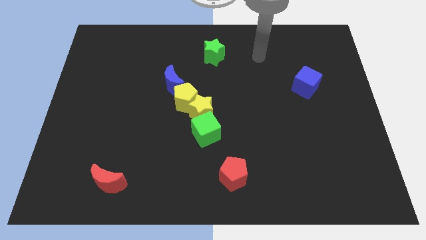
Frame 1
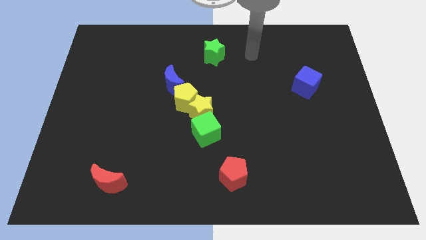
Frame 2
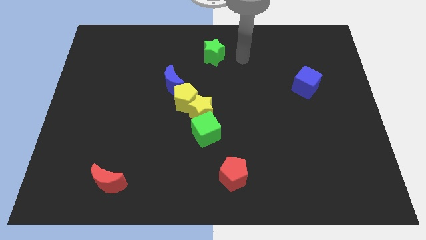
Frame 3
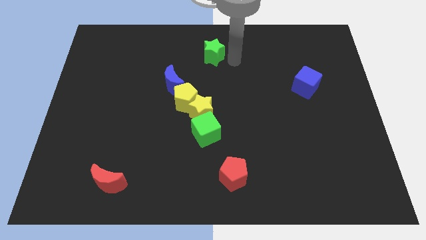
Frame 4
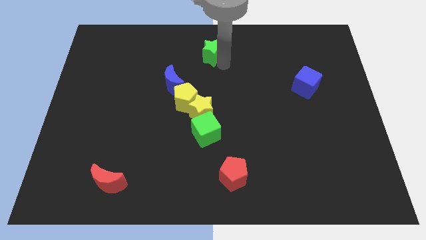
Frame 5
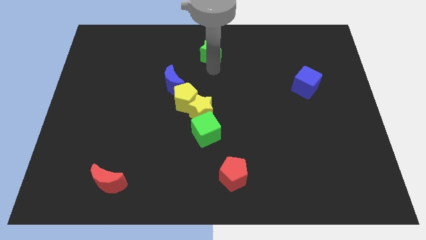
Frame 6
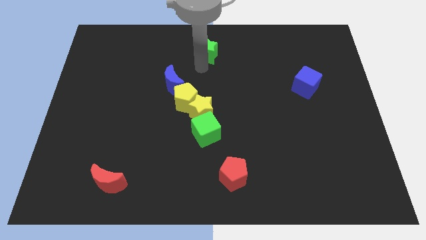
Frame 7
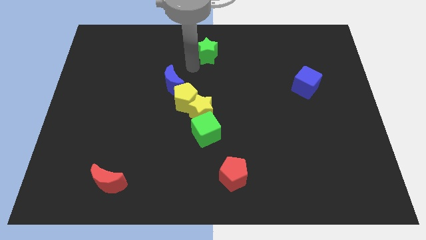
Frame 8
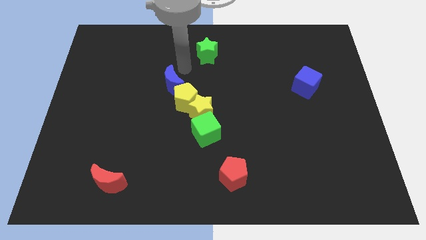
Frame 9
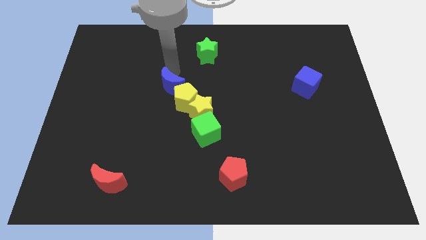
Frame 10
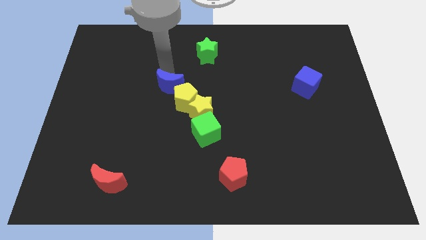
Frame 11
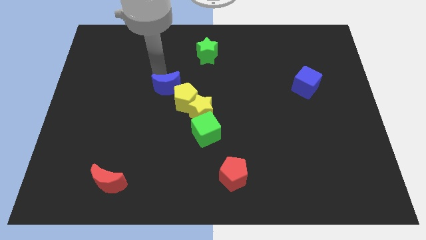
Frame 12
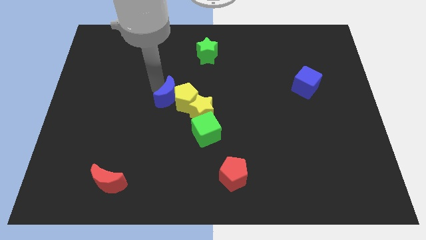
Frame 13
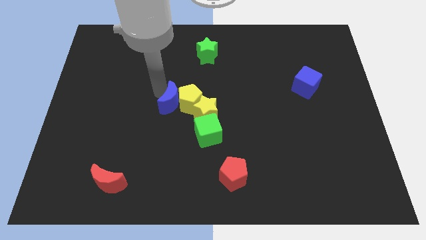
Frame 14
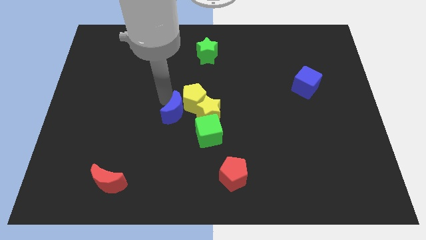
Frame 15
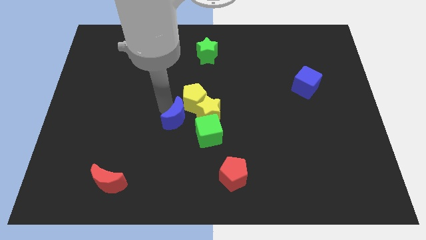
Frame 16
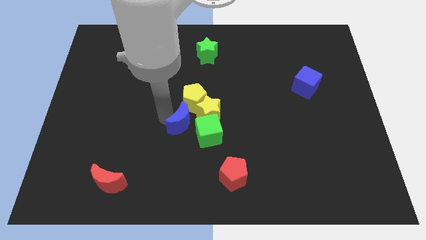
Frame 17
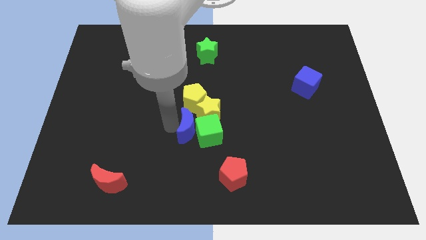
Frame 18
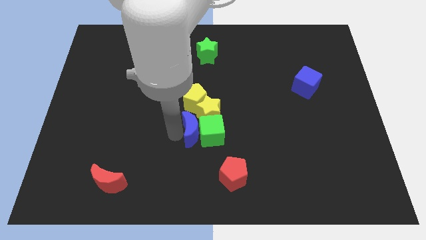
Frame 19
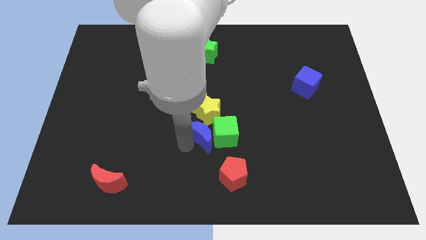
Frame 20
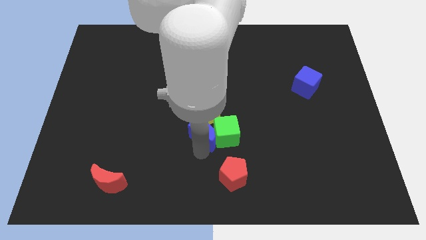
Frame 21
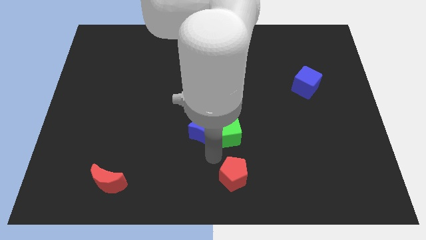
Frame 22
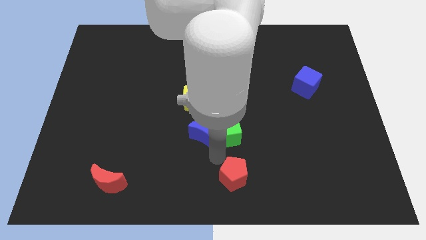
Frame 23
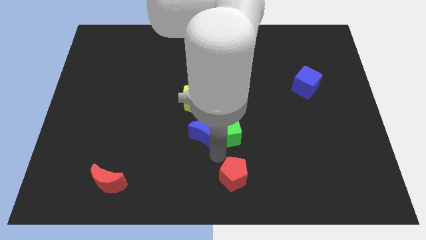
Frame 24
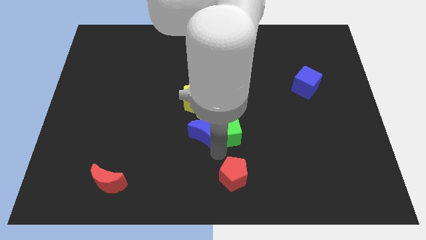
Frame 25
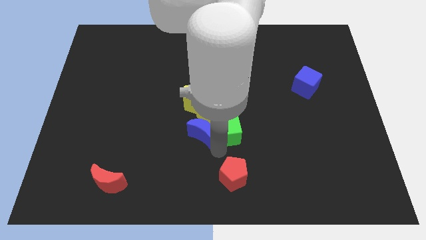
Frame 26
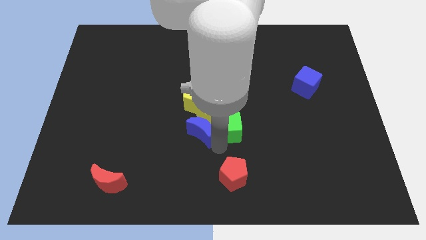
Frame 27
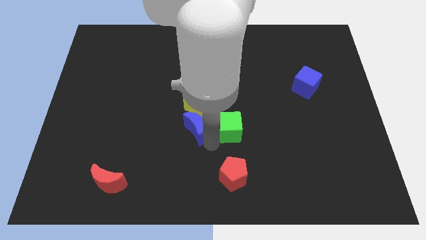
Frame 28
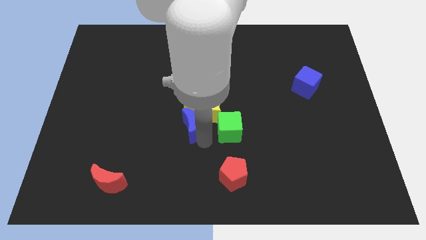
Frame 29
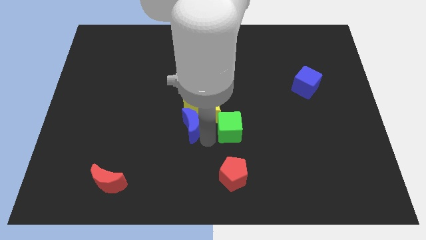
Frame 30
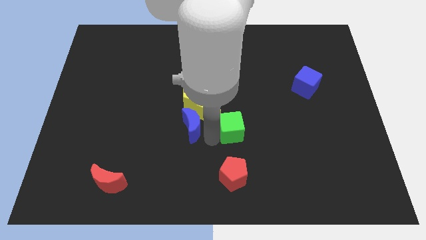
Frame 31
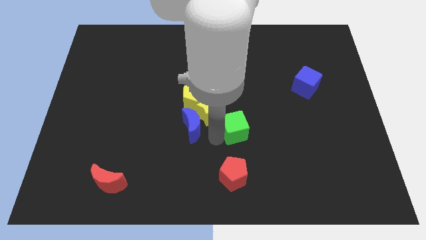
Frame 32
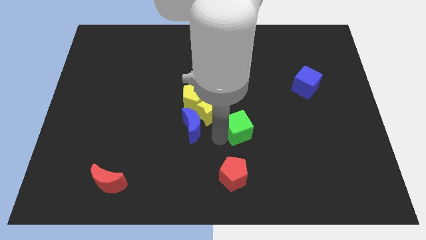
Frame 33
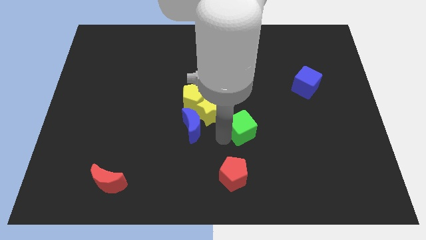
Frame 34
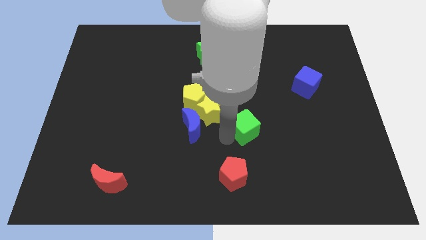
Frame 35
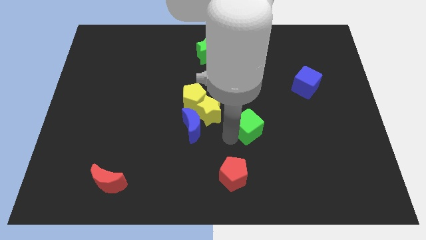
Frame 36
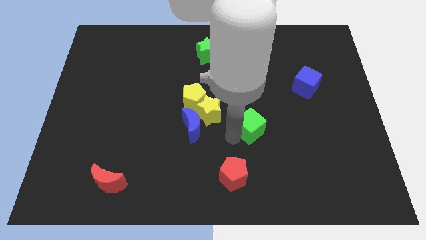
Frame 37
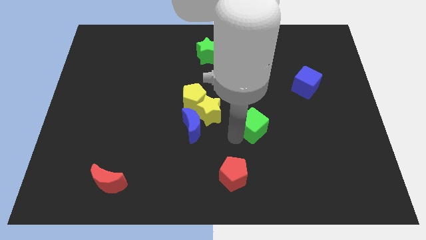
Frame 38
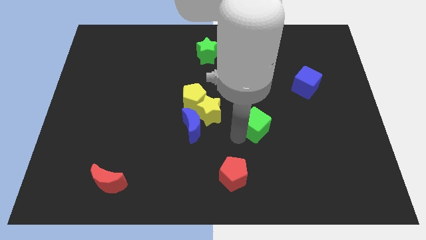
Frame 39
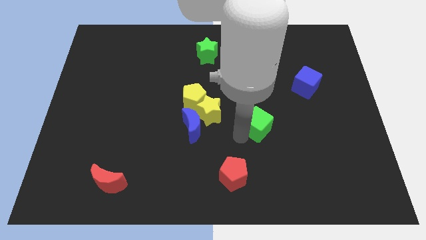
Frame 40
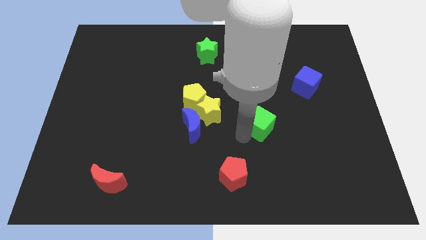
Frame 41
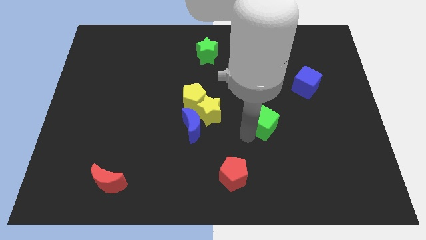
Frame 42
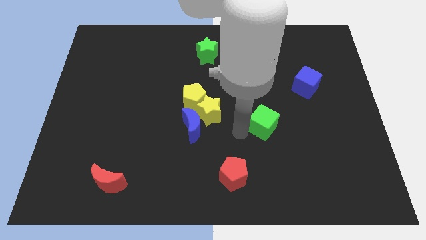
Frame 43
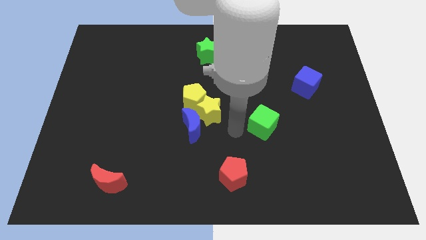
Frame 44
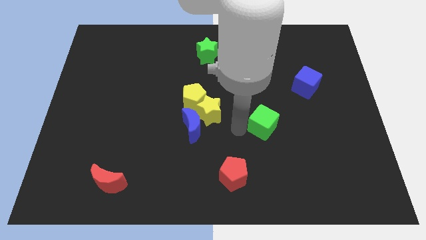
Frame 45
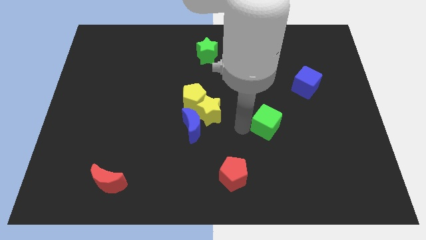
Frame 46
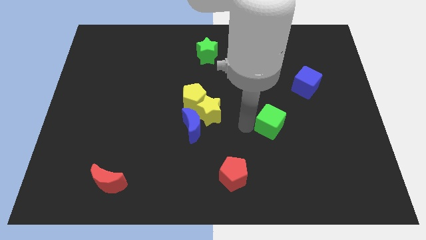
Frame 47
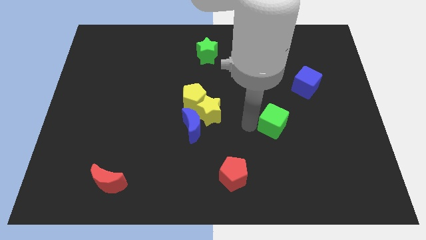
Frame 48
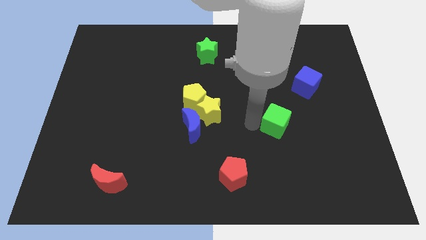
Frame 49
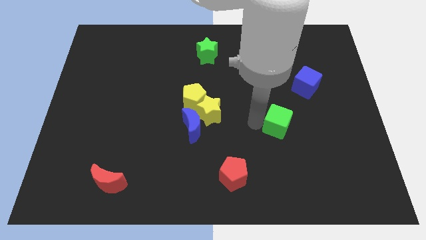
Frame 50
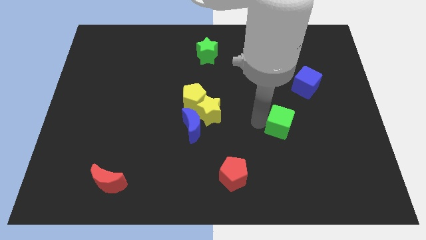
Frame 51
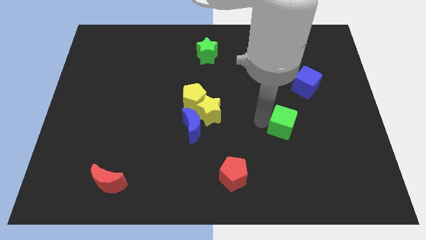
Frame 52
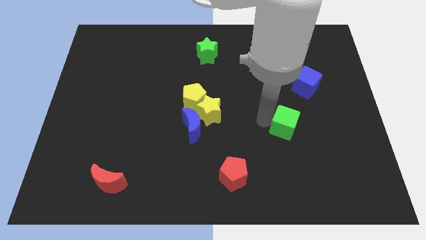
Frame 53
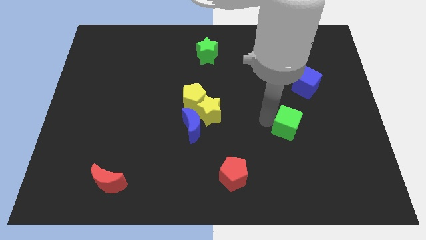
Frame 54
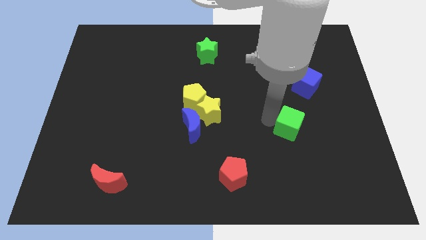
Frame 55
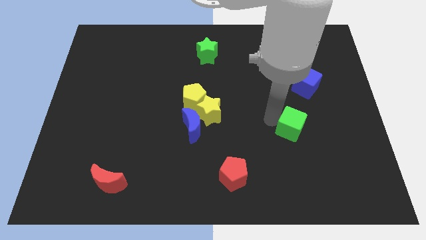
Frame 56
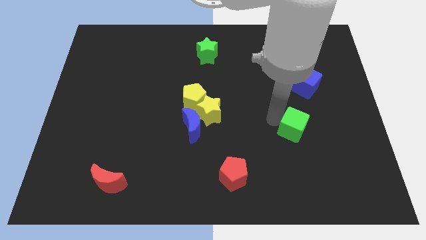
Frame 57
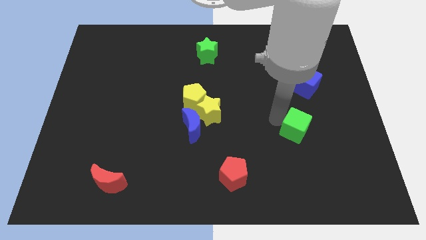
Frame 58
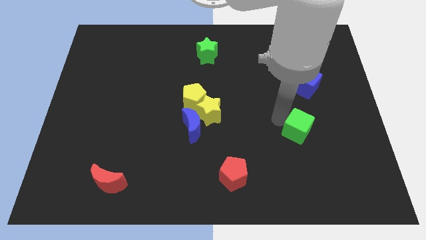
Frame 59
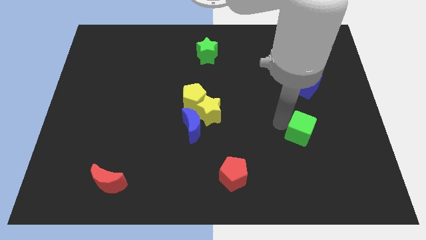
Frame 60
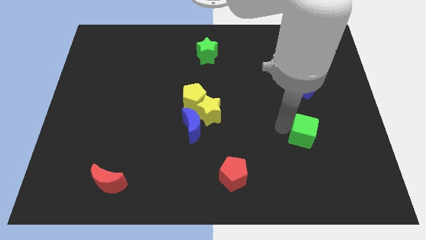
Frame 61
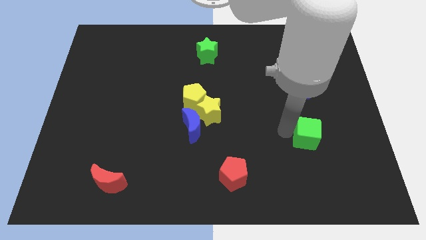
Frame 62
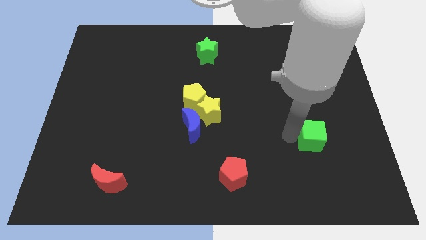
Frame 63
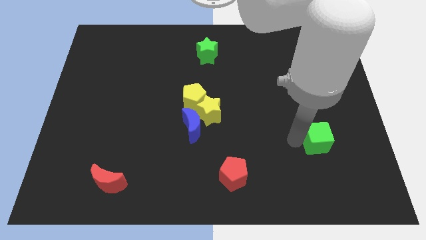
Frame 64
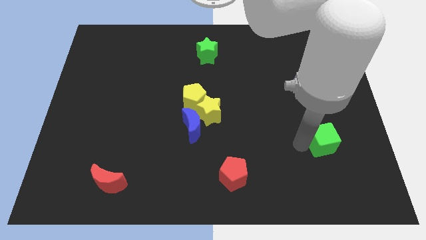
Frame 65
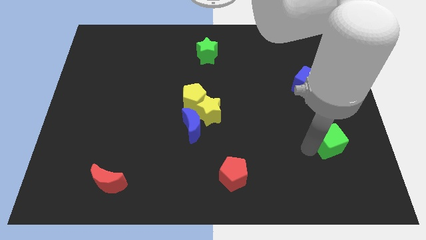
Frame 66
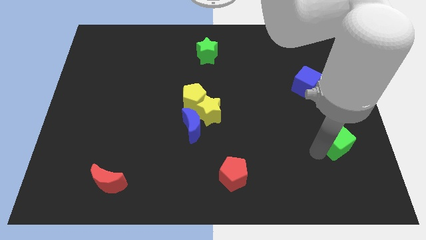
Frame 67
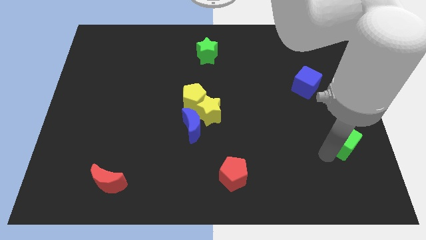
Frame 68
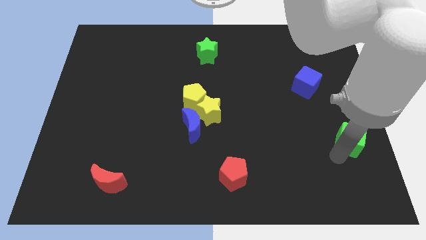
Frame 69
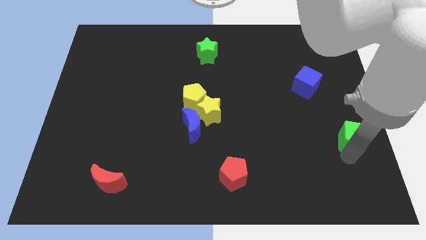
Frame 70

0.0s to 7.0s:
push the green cube to the right side
